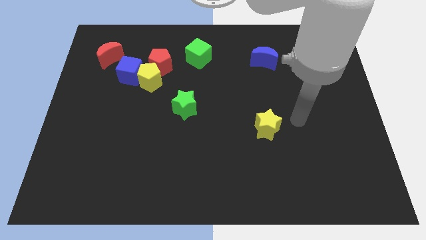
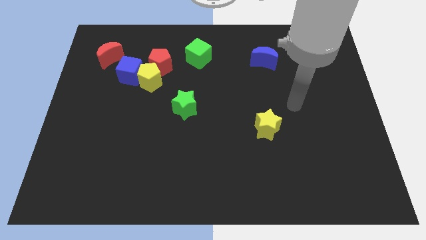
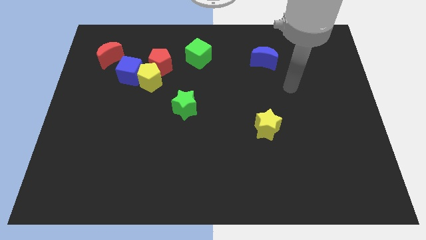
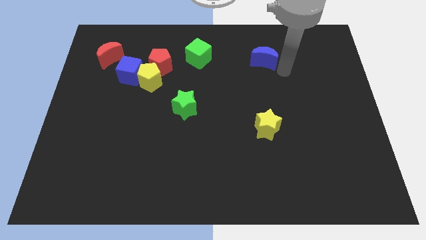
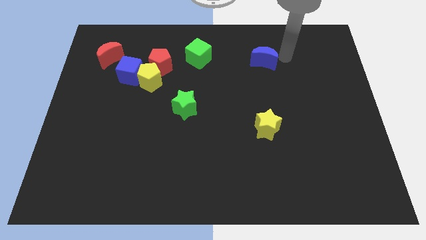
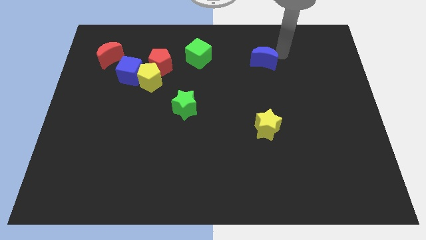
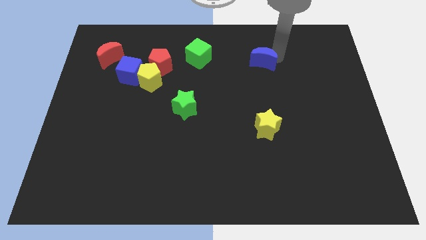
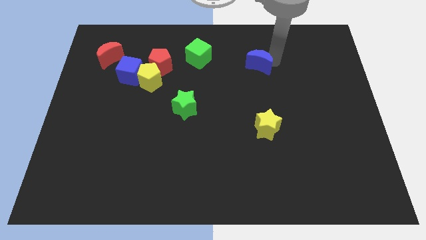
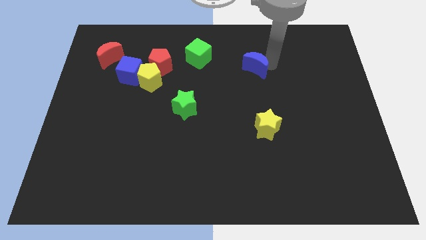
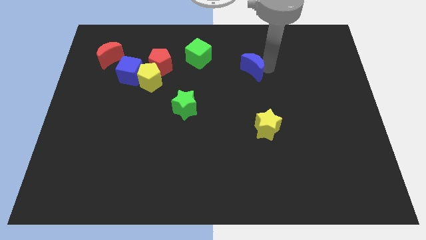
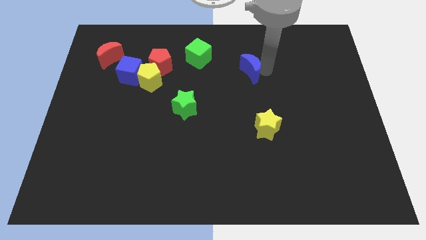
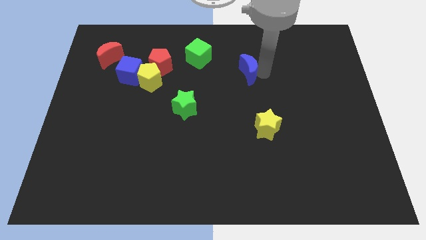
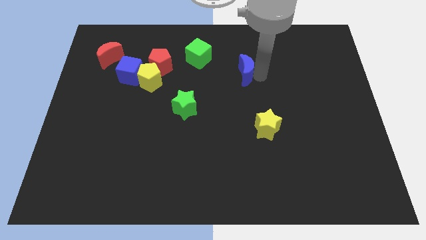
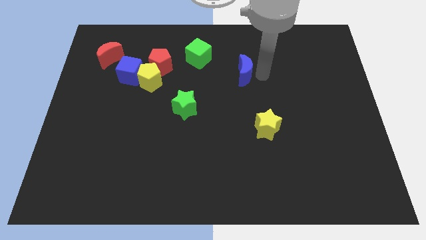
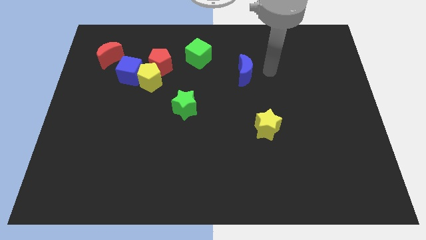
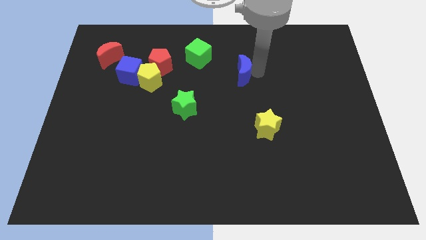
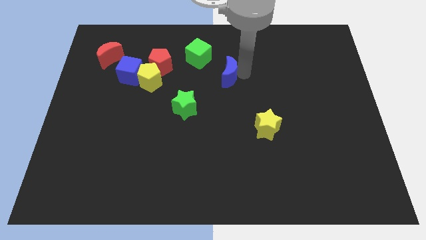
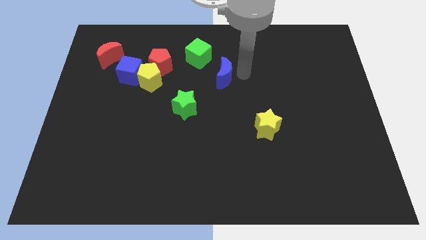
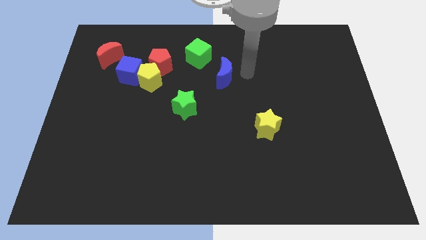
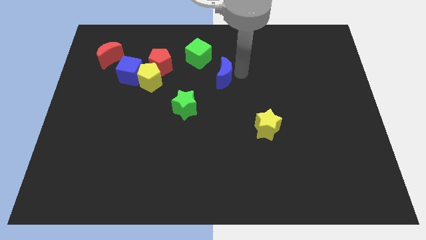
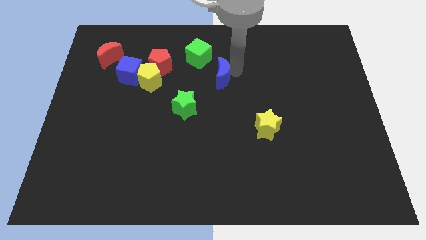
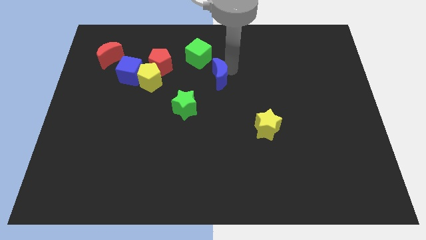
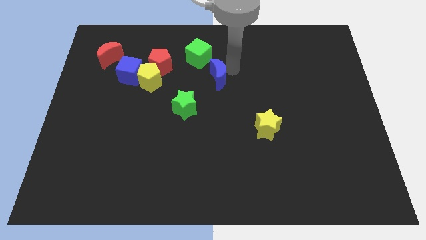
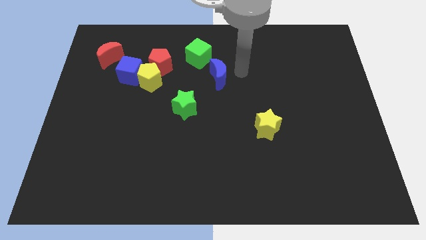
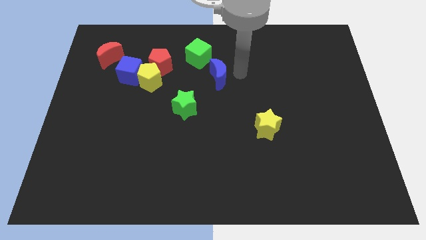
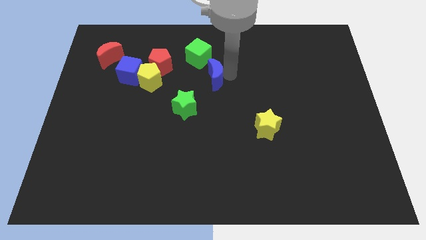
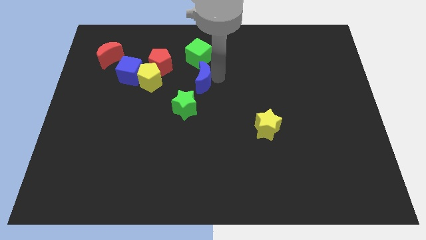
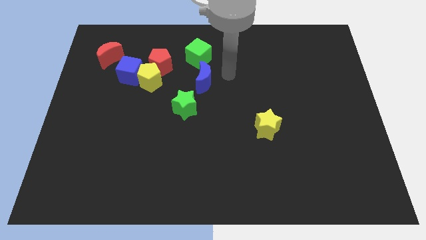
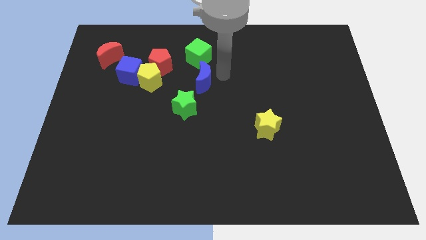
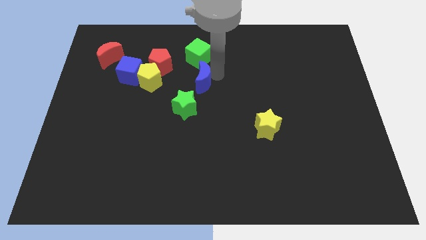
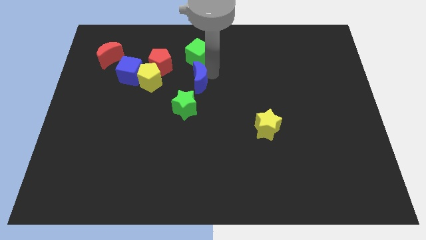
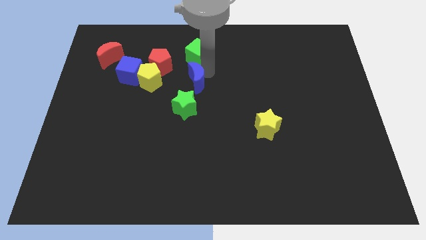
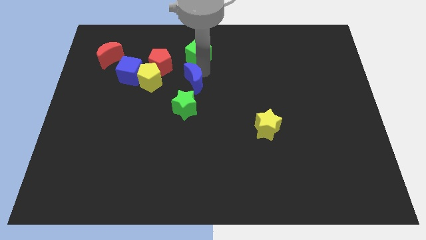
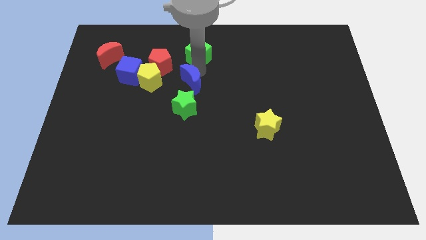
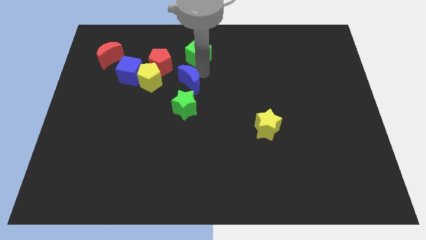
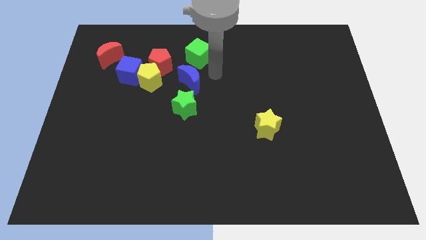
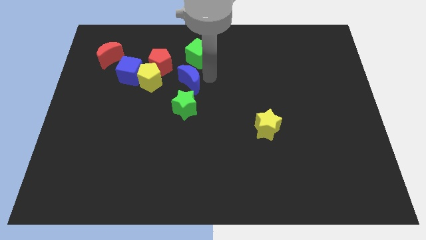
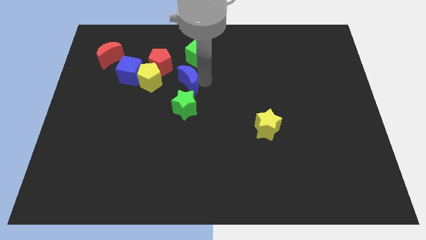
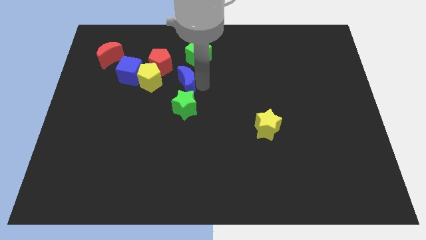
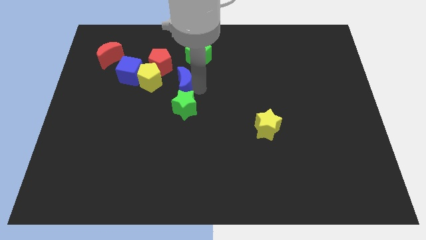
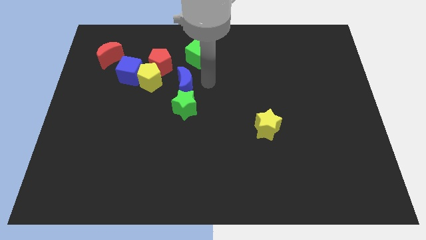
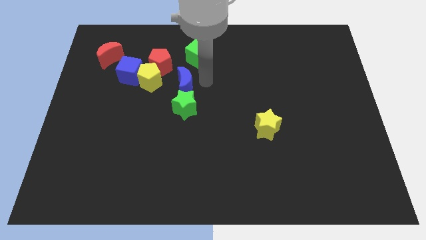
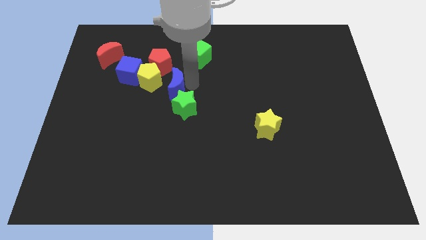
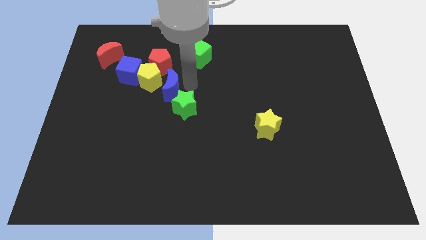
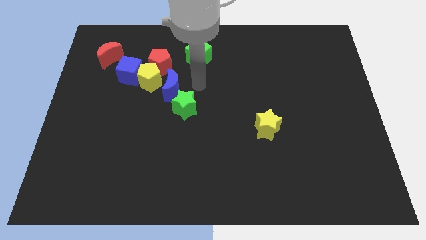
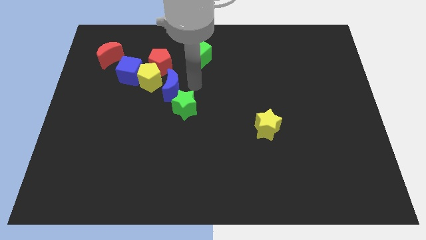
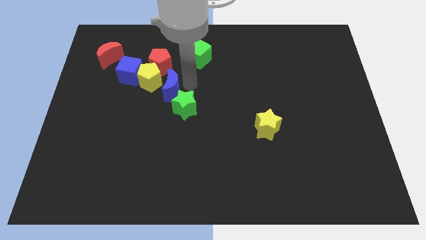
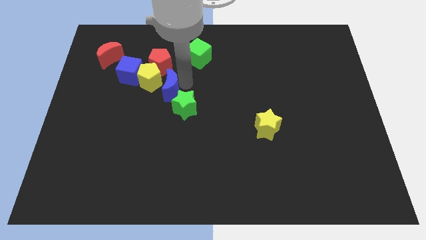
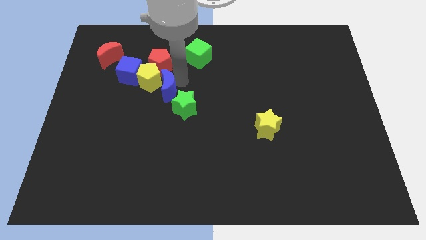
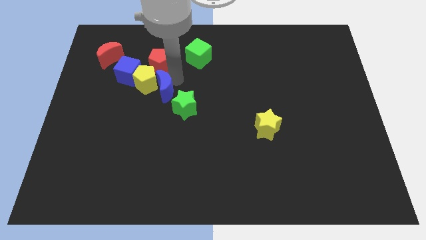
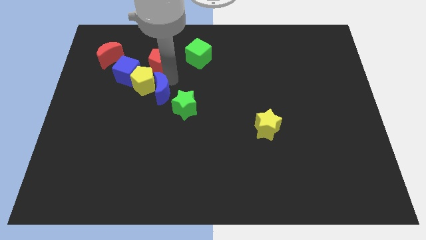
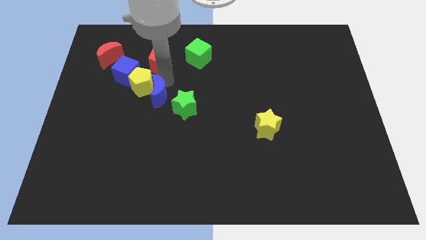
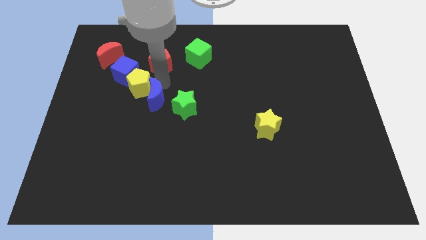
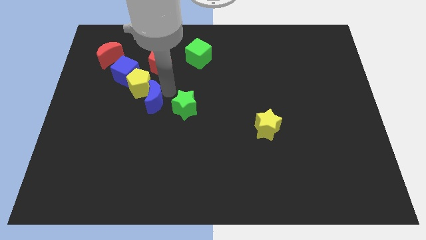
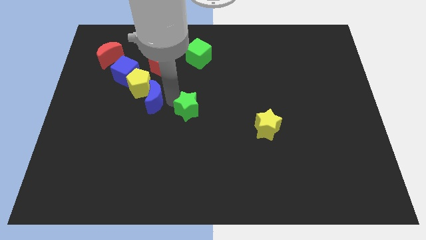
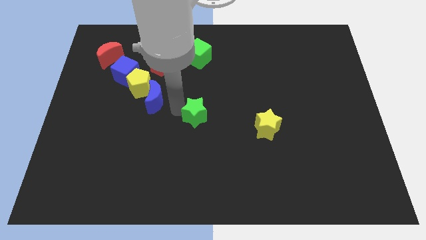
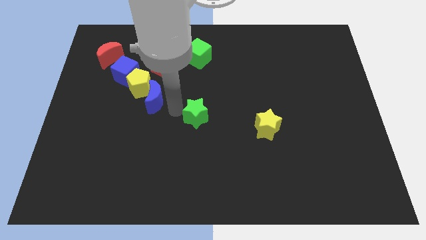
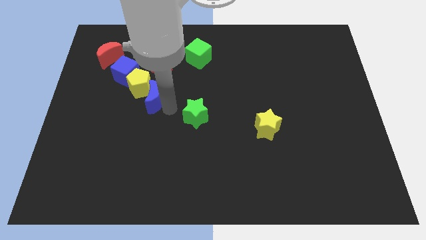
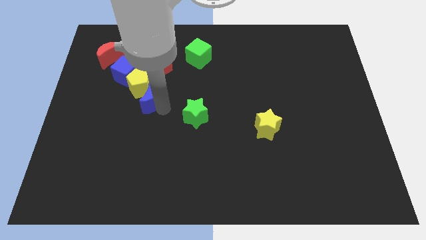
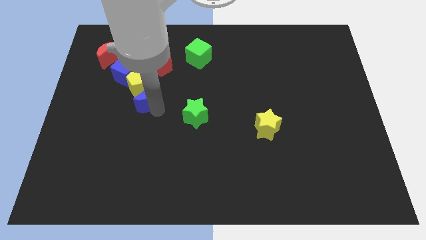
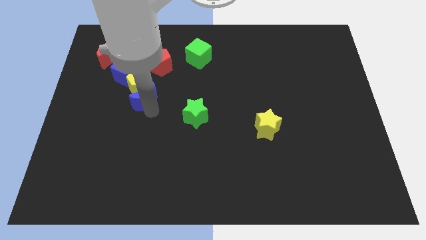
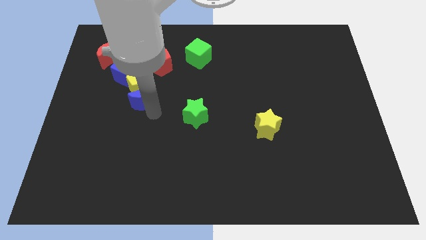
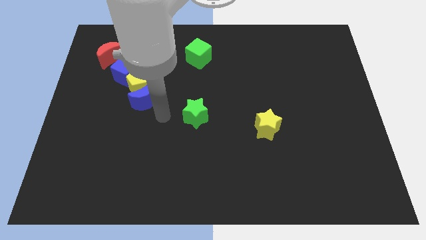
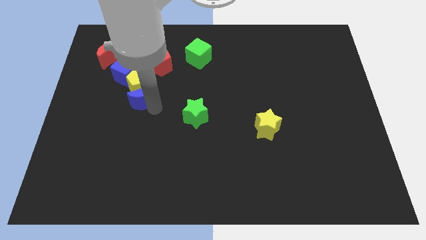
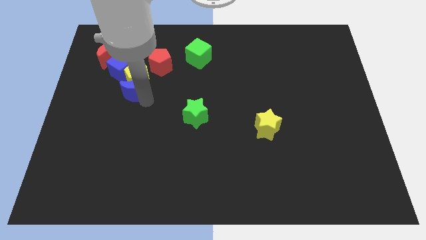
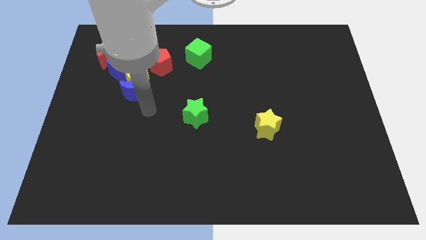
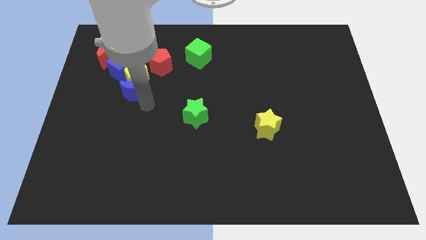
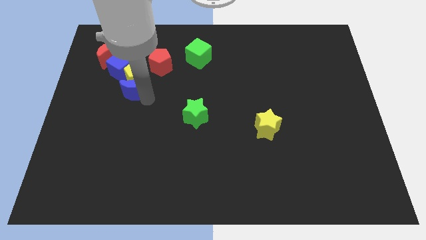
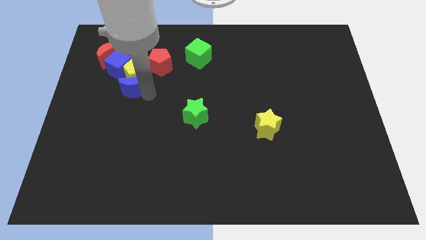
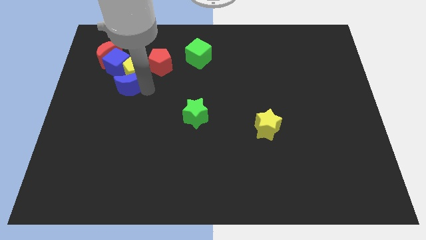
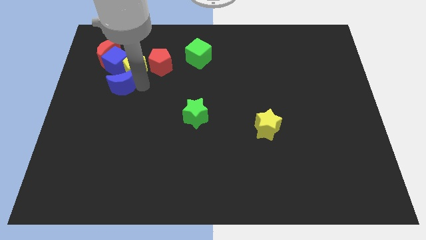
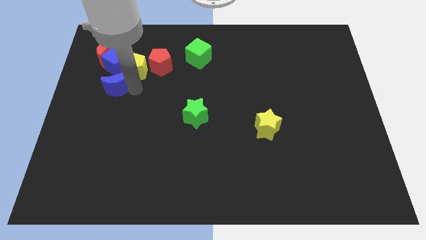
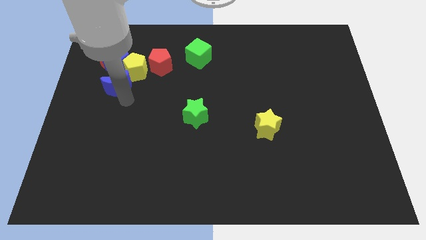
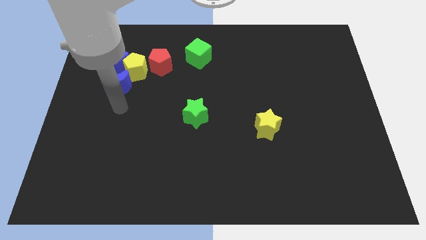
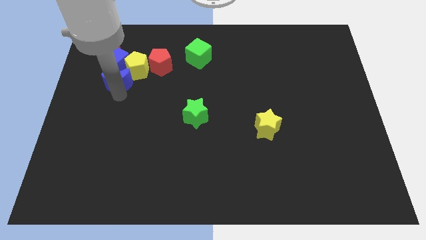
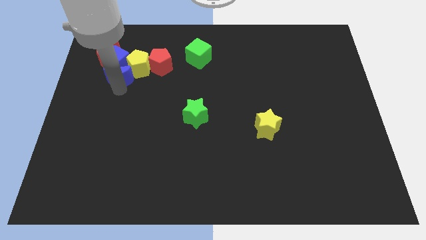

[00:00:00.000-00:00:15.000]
put the blue moon towards the blue cube
